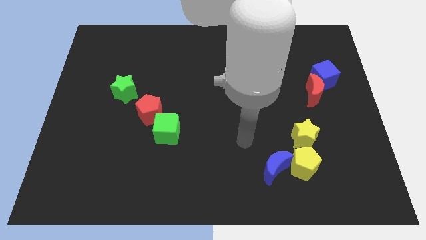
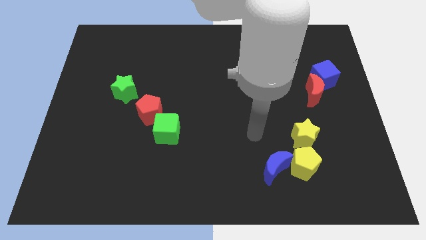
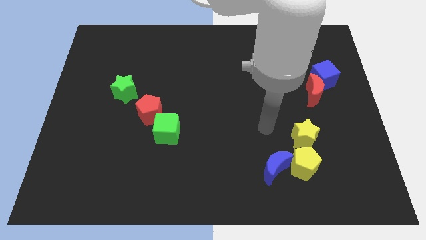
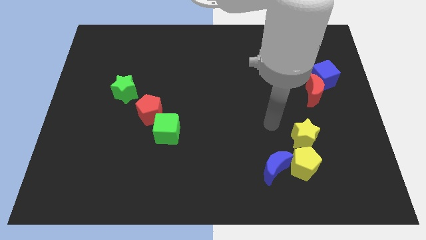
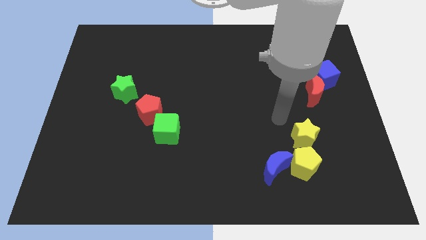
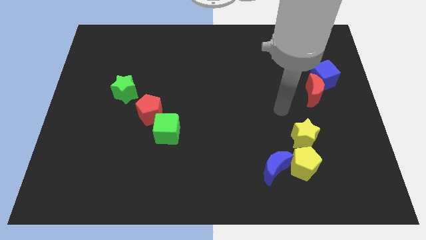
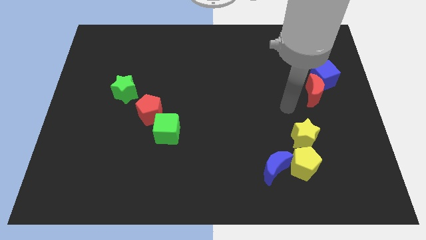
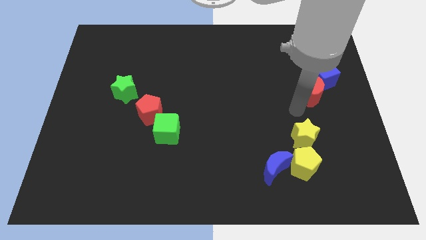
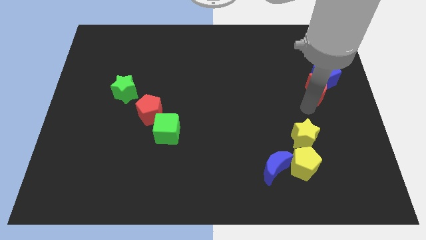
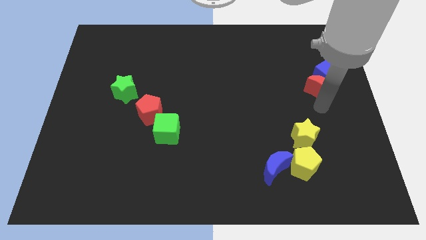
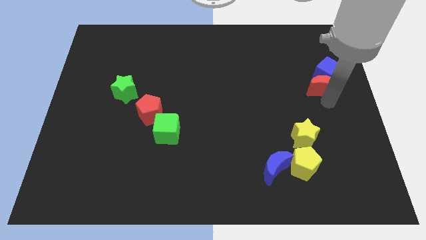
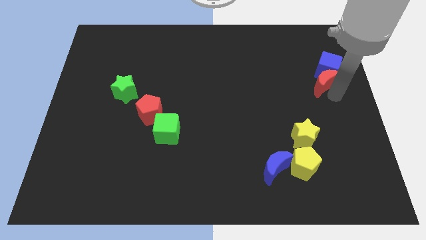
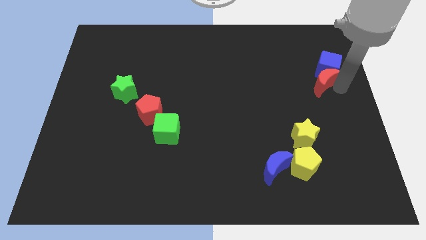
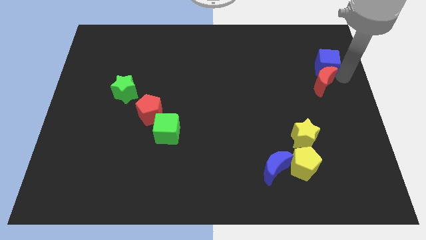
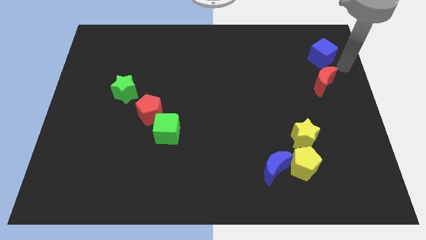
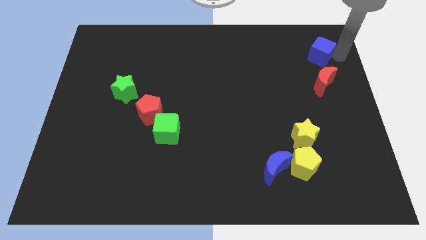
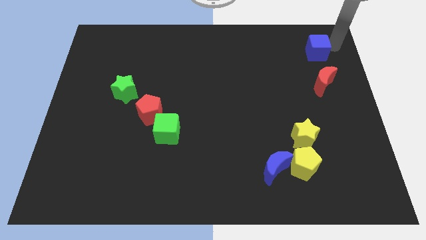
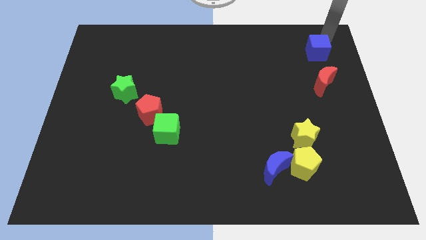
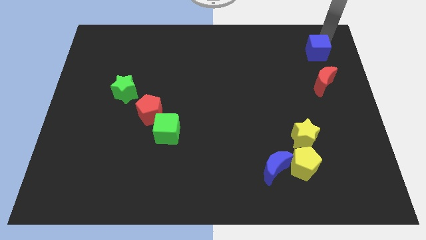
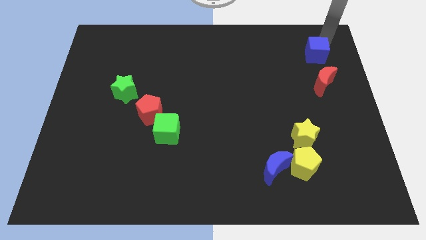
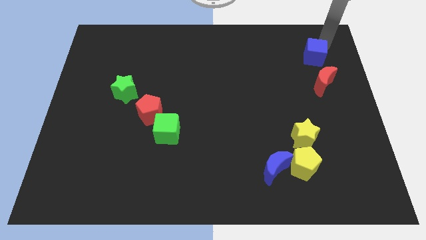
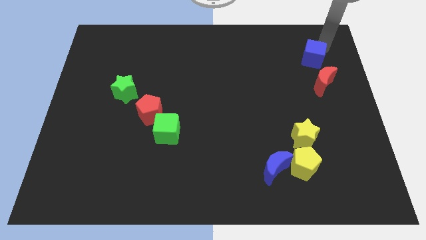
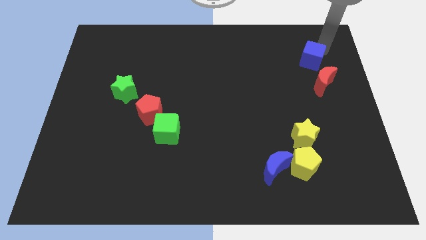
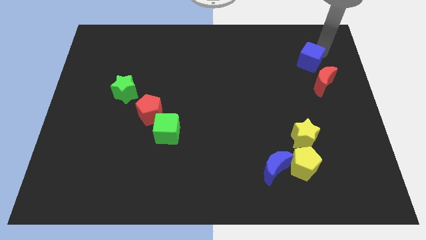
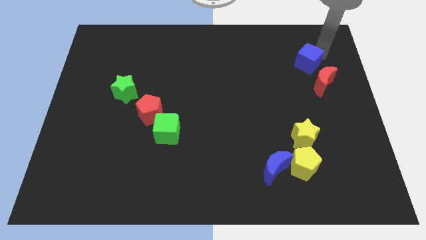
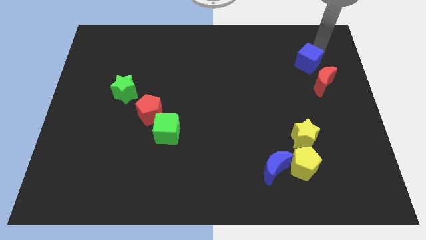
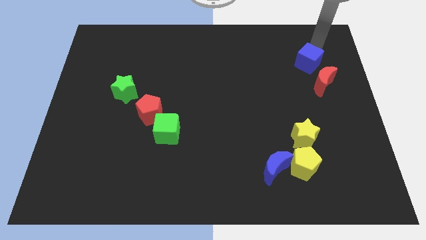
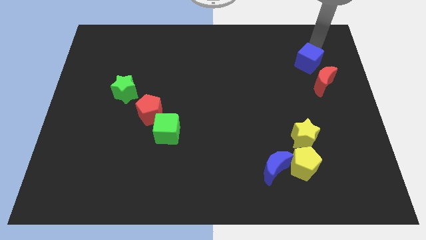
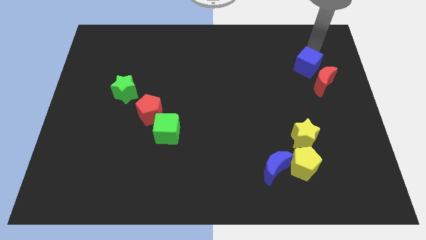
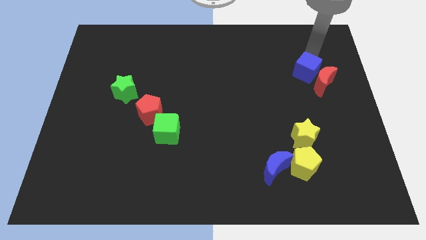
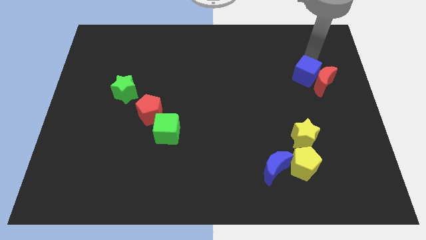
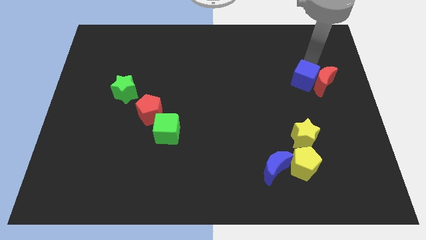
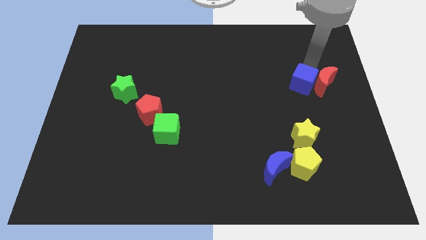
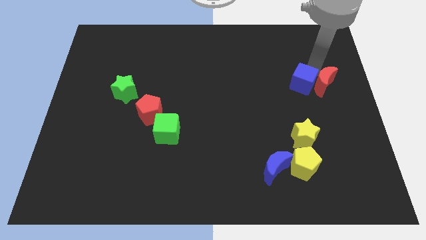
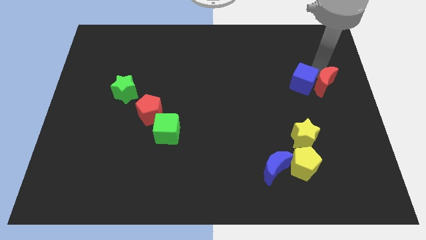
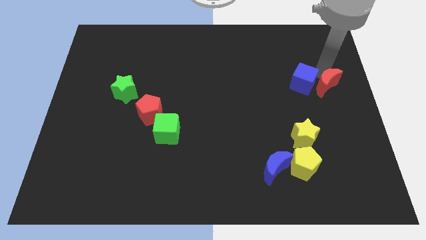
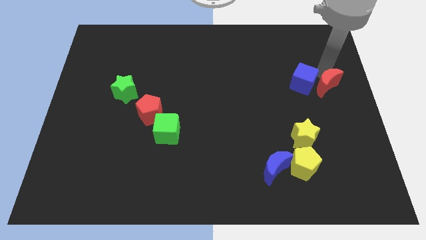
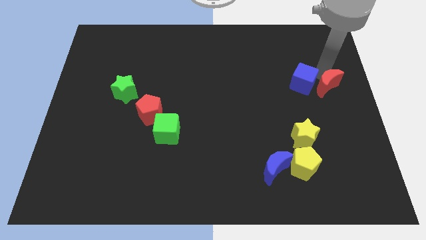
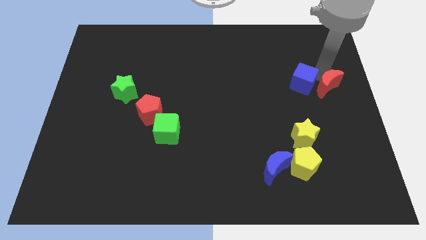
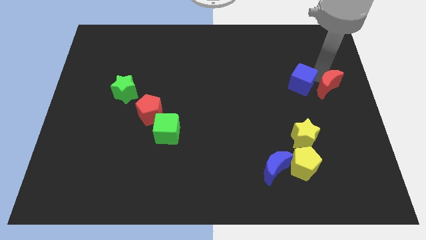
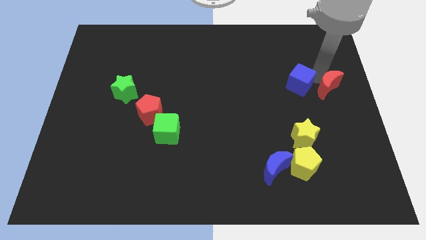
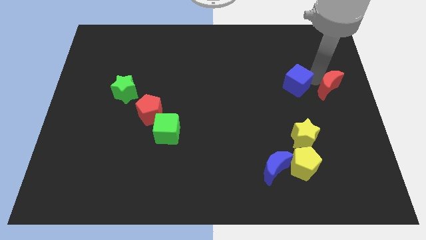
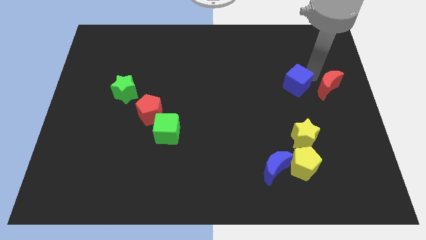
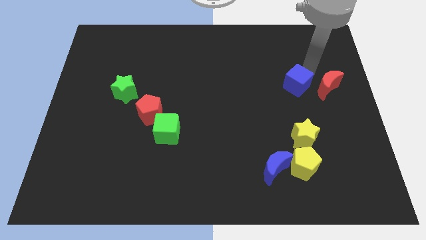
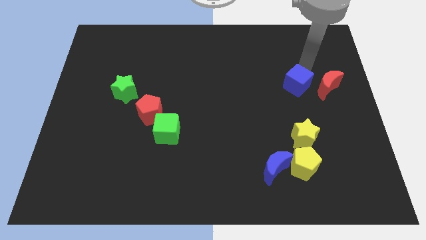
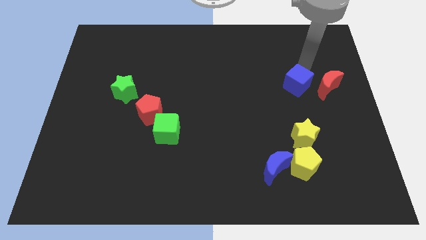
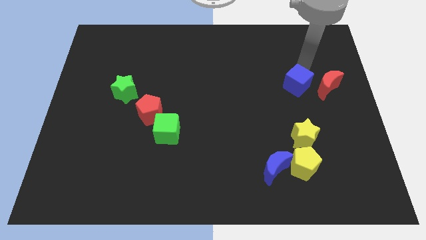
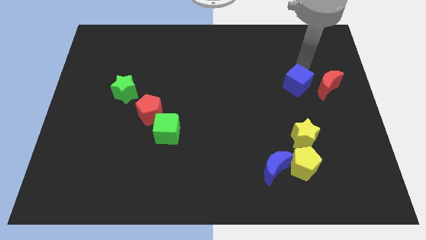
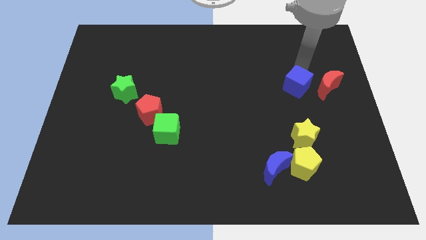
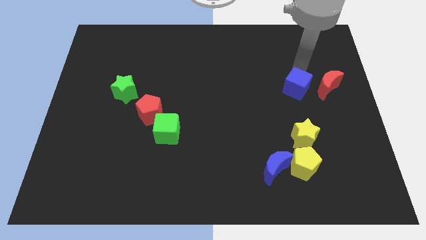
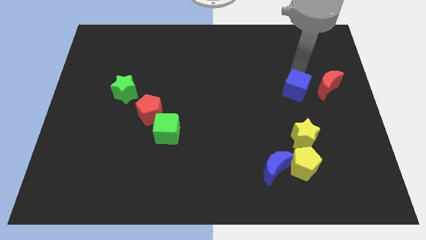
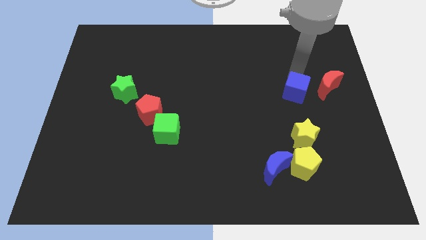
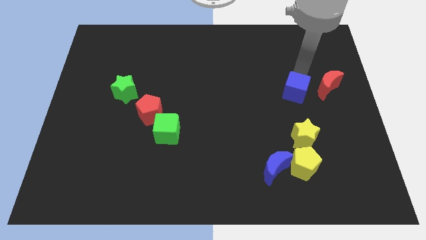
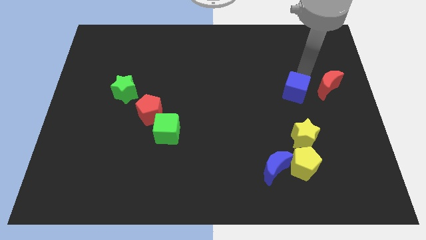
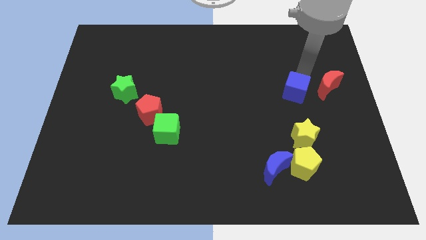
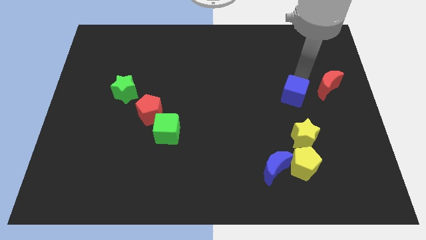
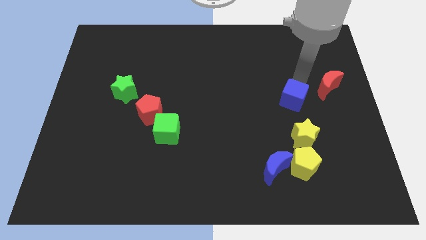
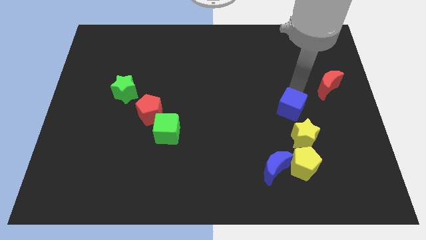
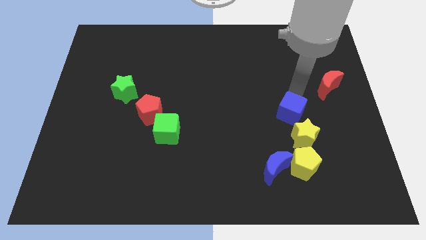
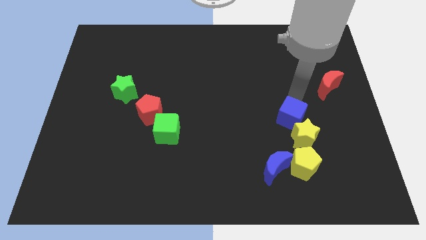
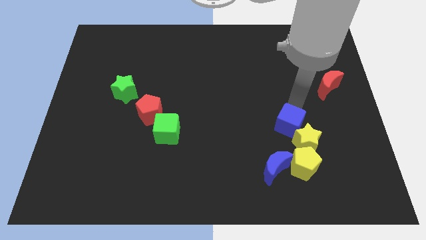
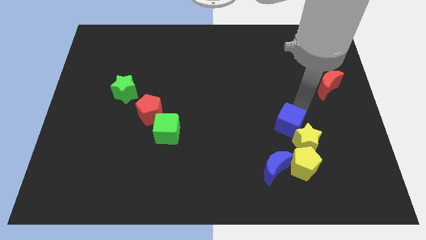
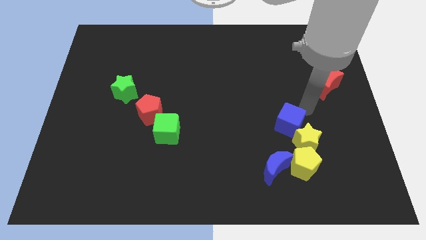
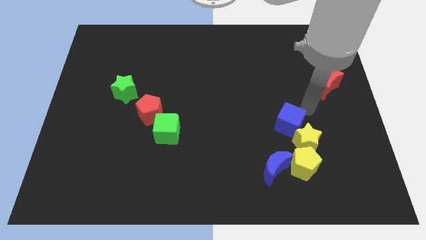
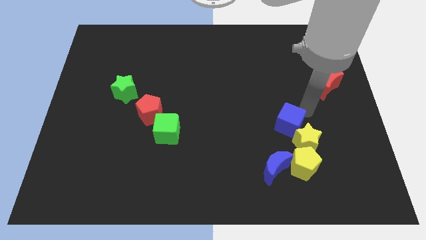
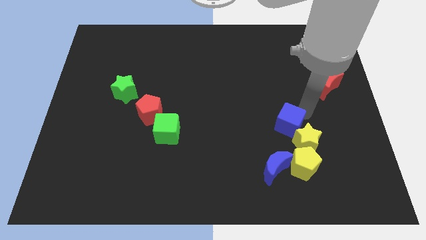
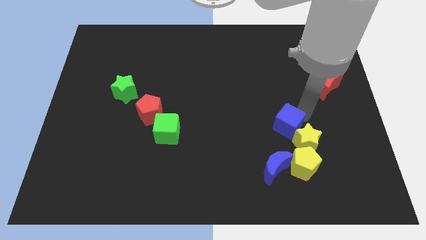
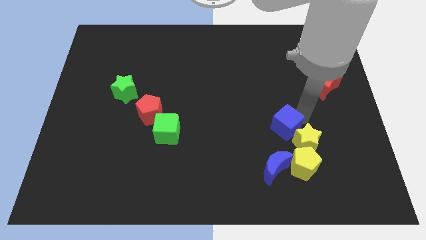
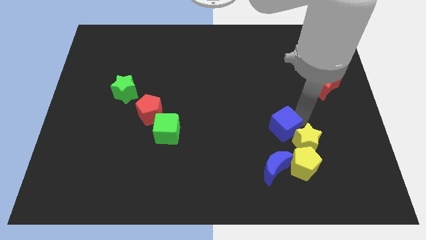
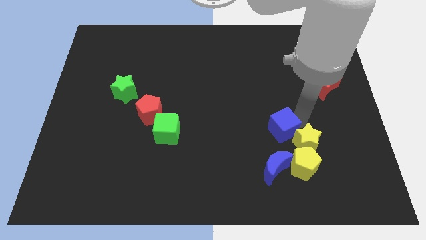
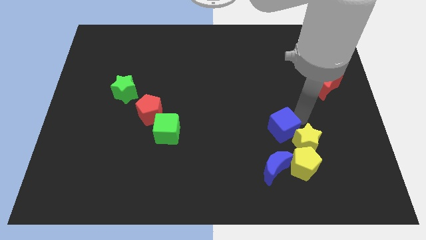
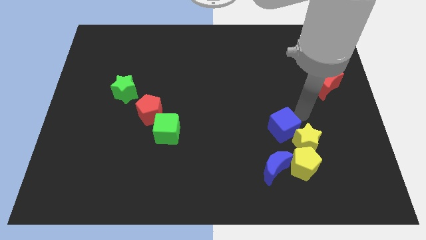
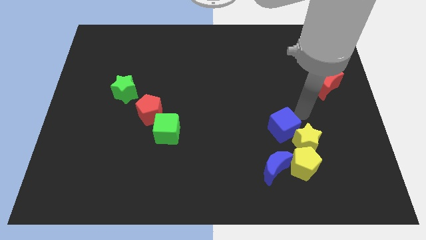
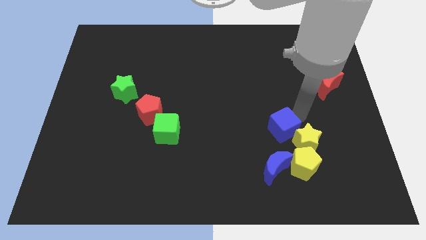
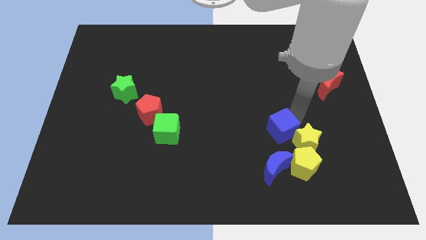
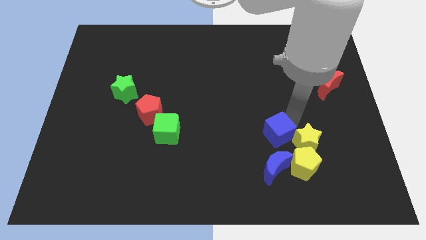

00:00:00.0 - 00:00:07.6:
move the blue cube downwards and left diagonally

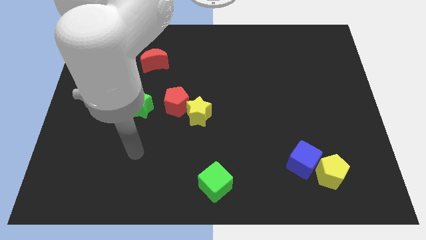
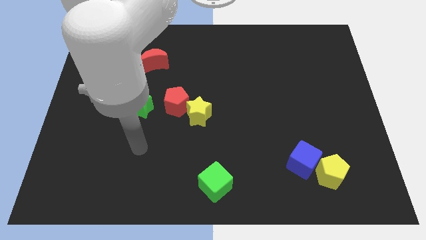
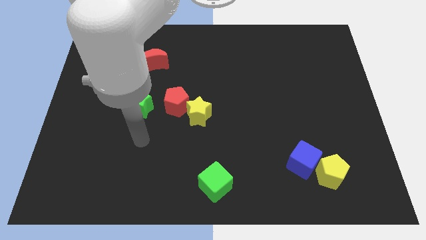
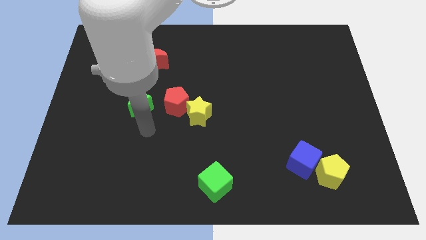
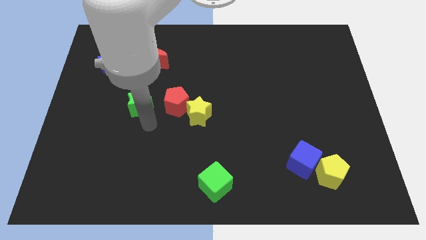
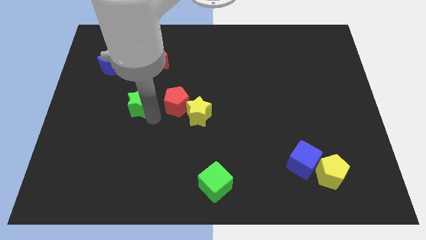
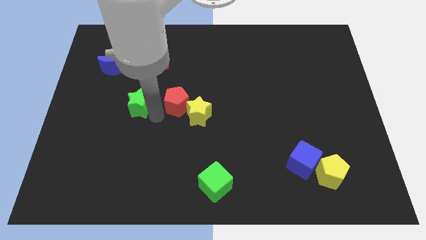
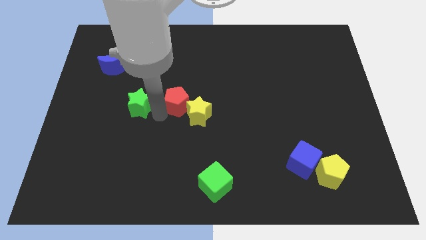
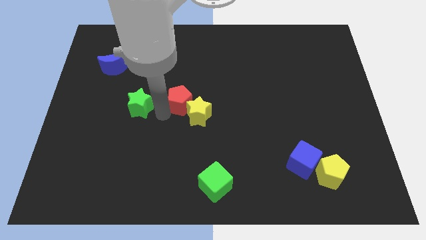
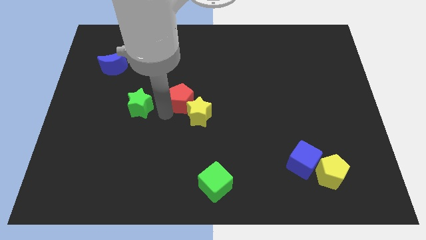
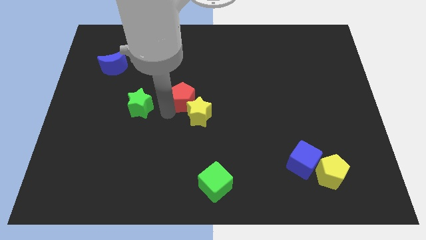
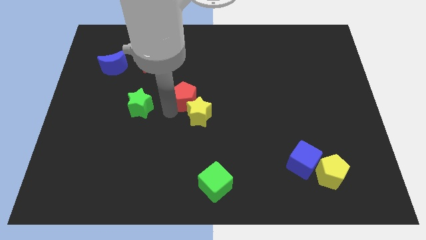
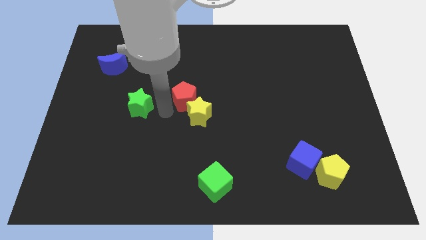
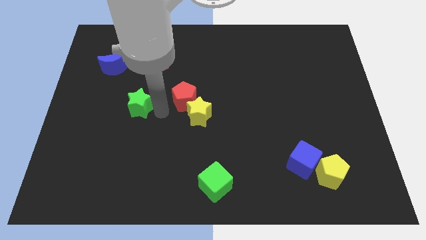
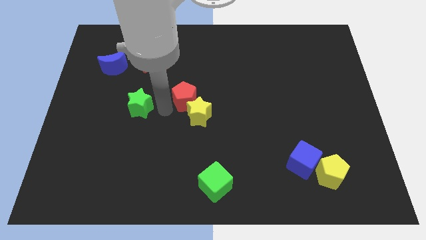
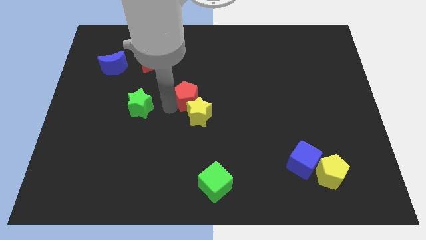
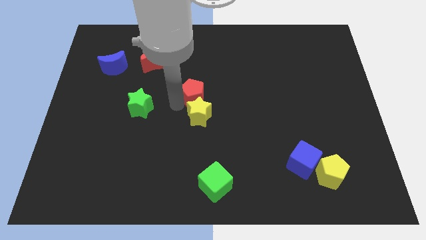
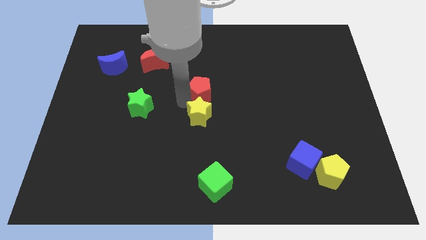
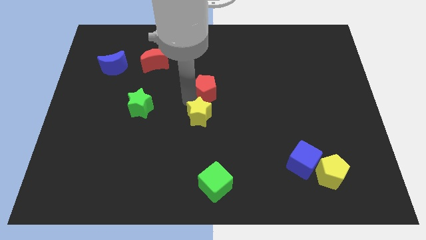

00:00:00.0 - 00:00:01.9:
slightly slide the red pentagon upwards and to the right
